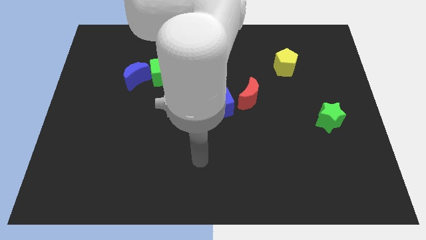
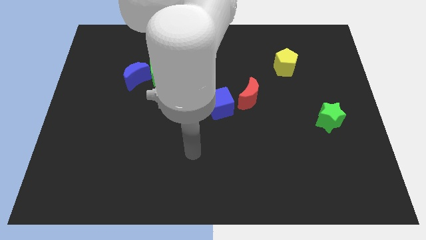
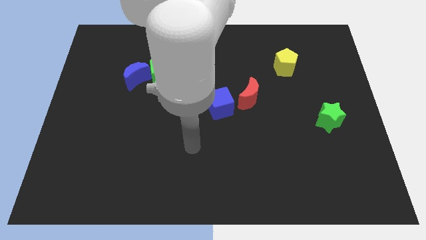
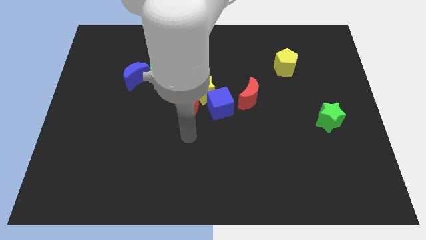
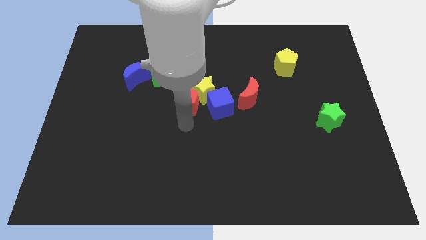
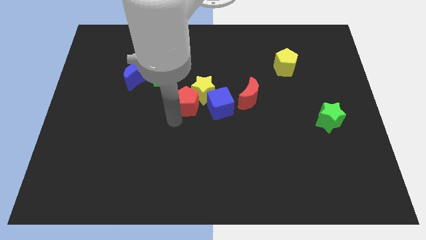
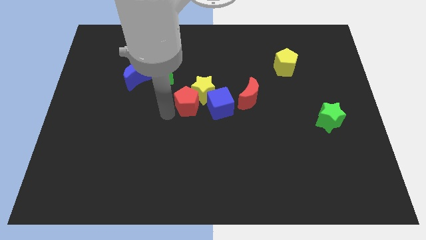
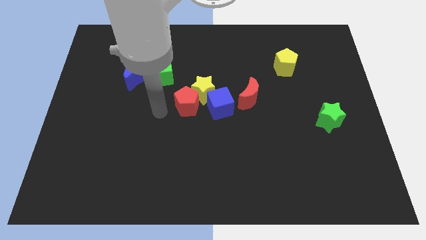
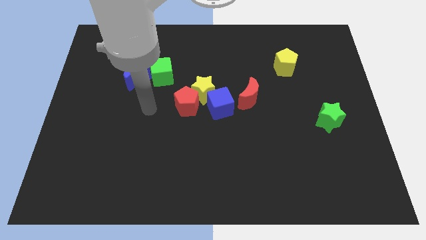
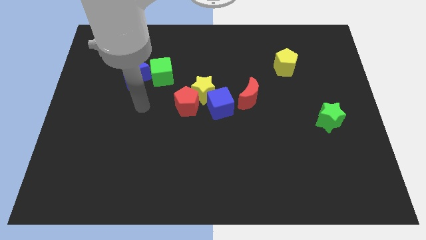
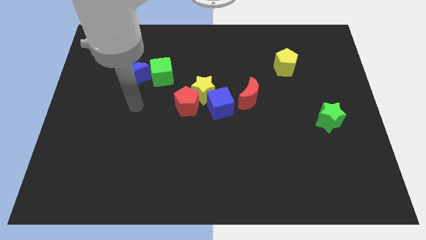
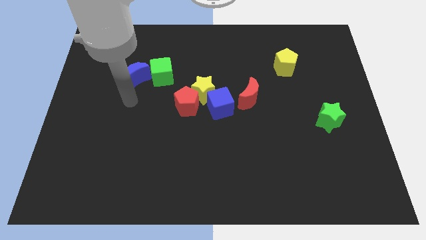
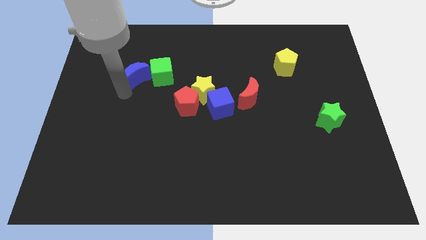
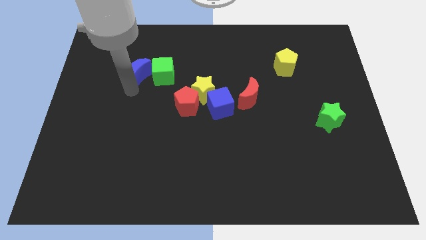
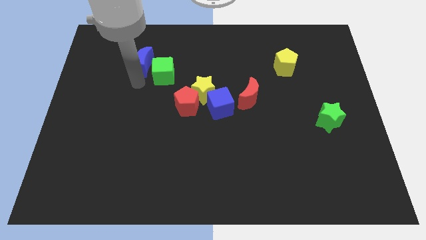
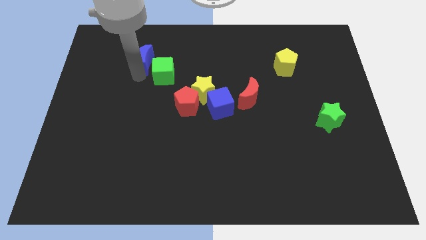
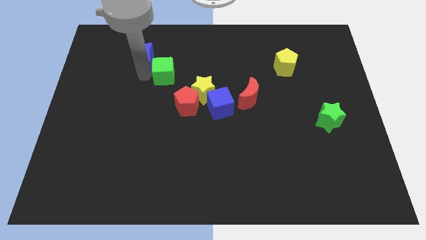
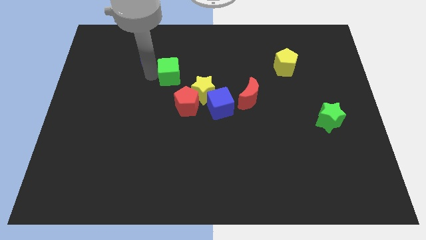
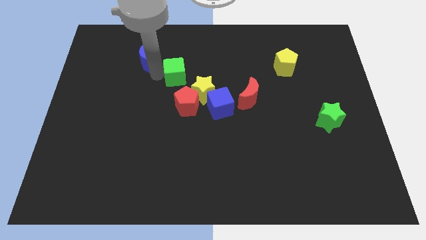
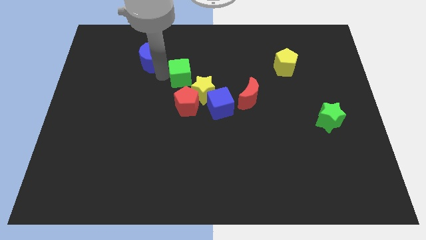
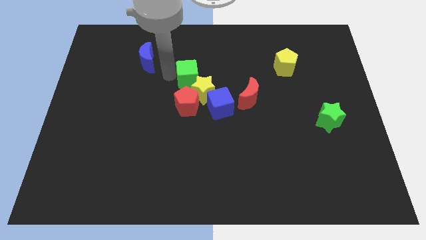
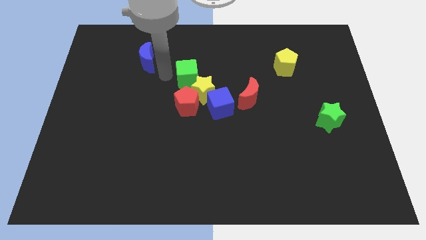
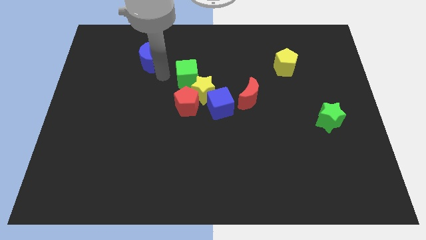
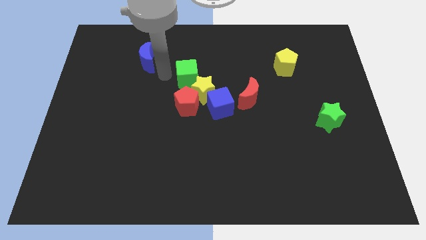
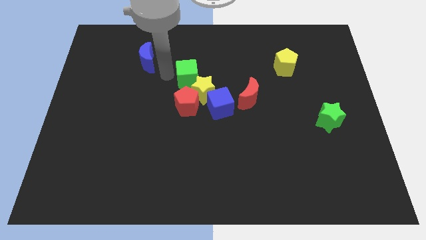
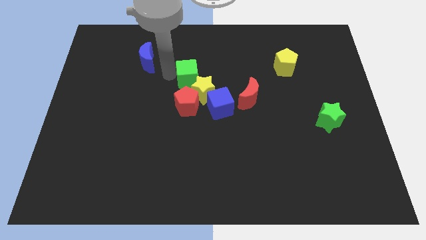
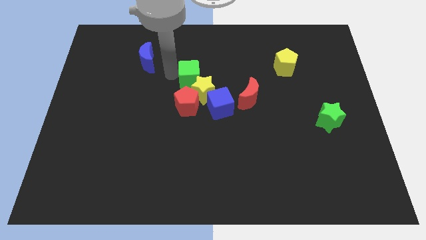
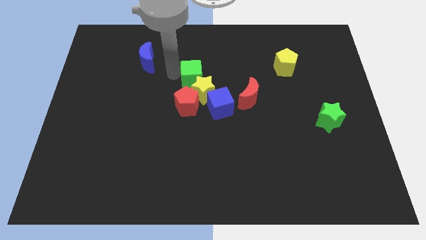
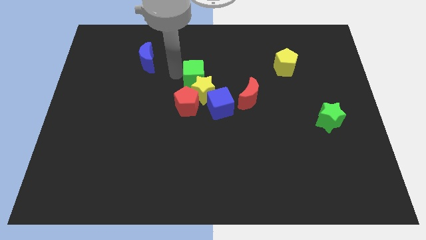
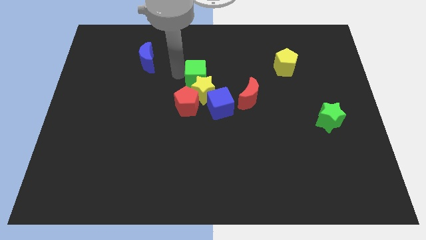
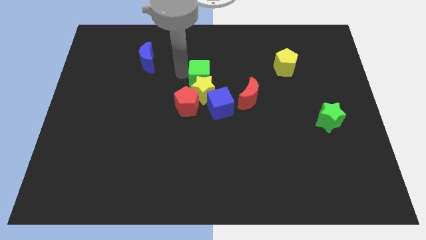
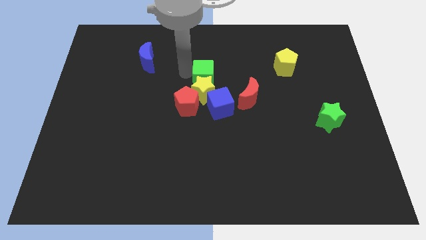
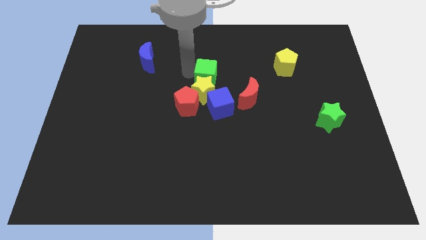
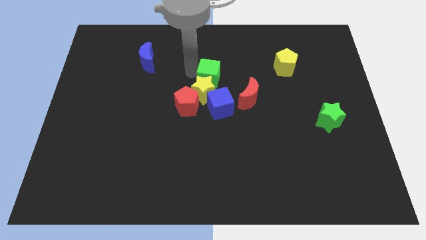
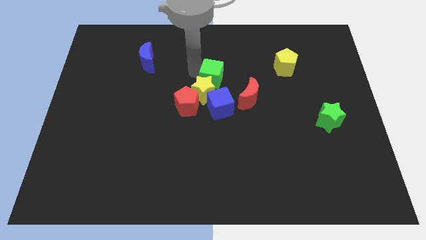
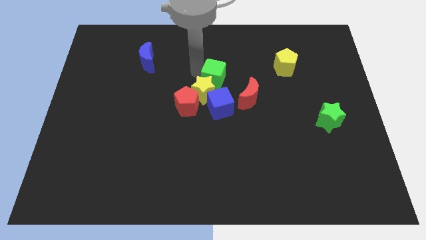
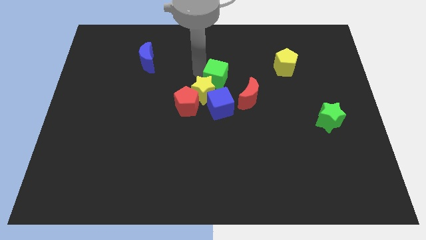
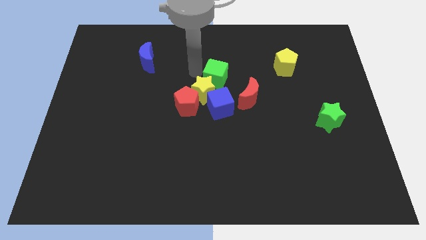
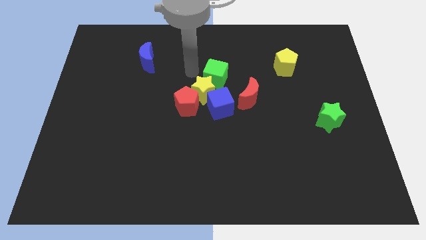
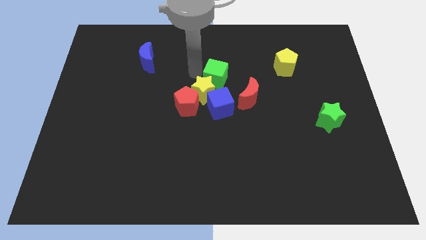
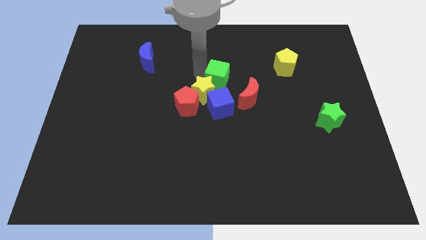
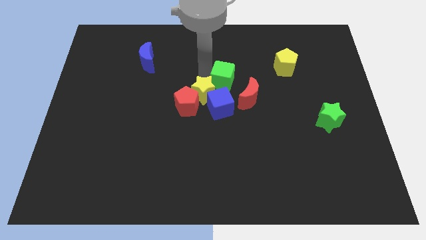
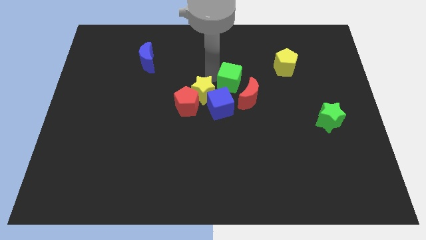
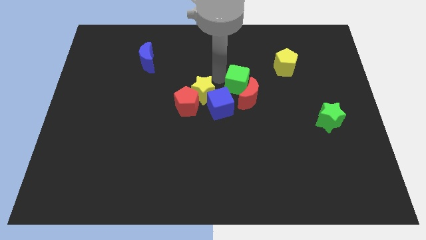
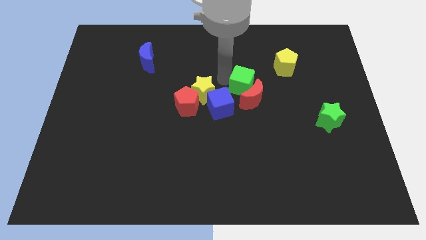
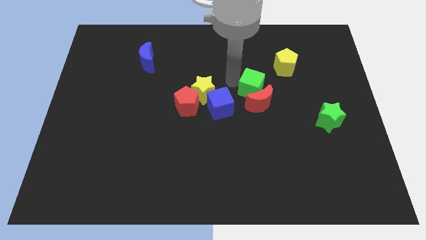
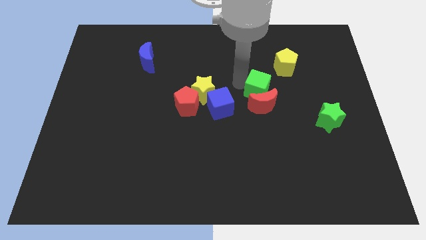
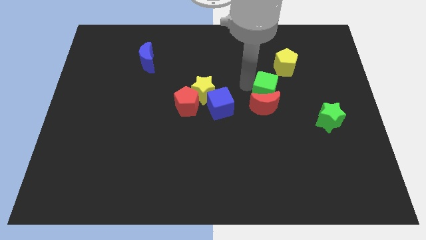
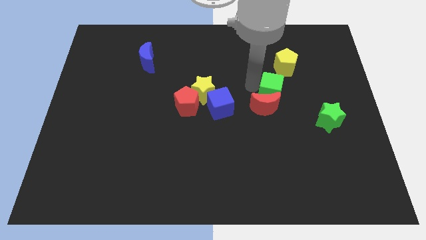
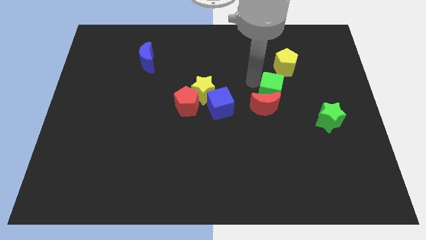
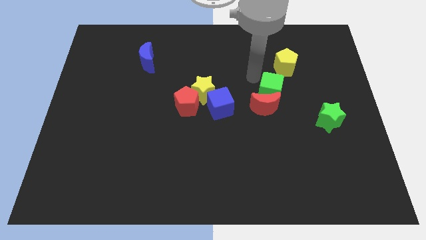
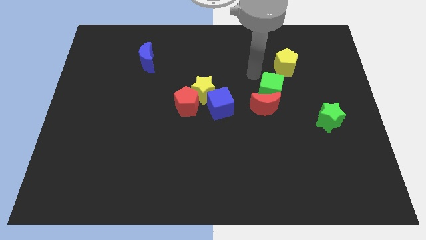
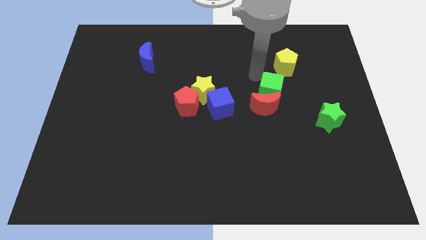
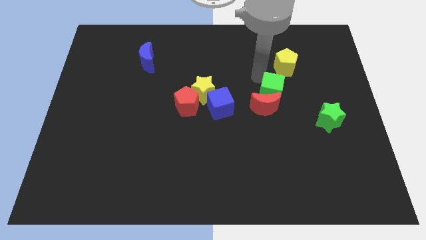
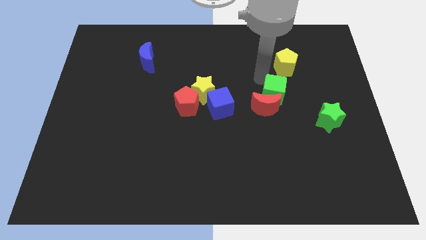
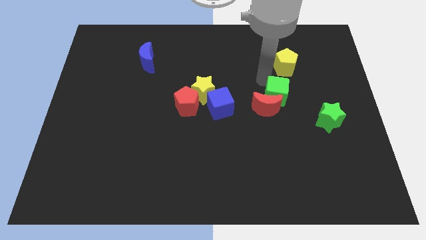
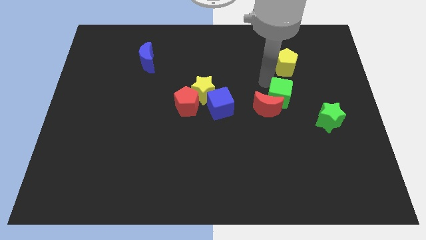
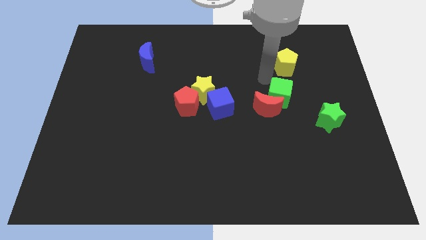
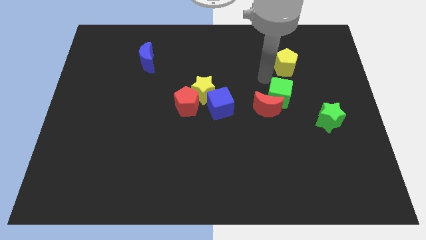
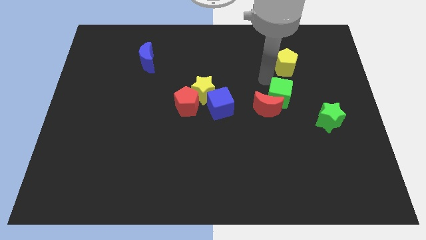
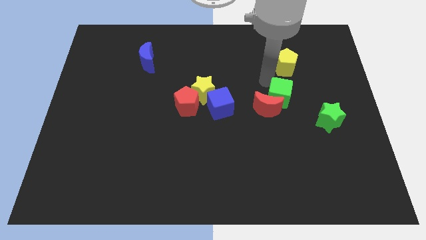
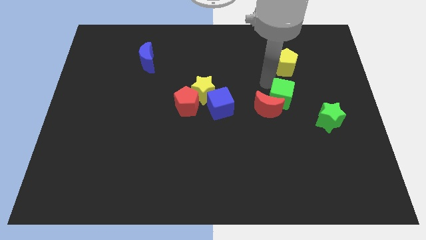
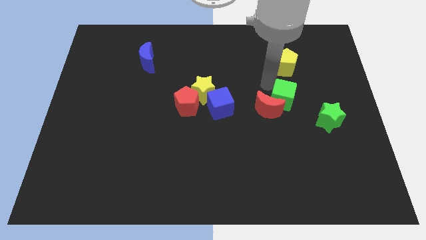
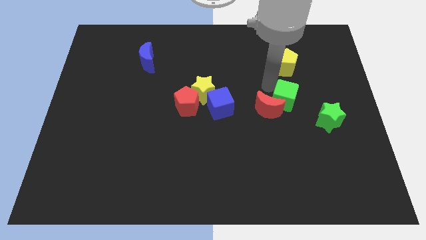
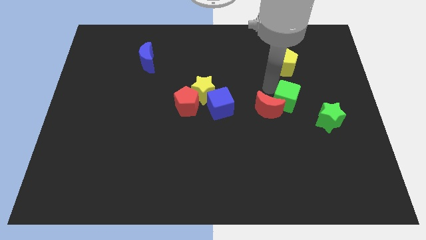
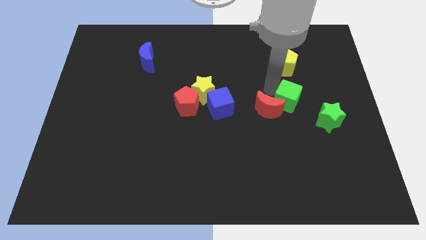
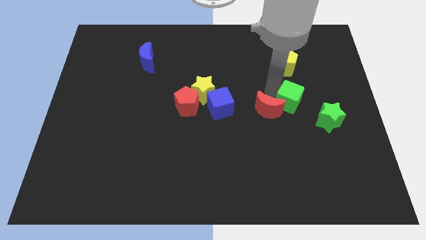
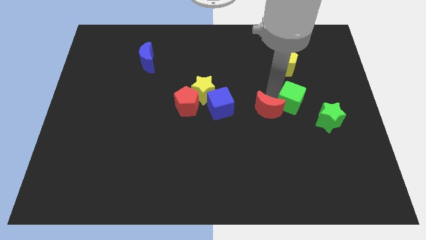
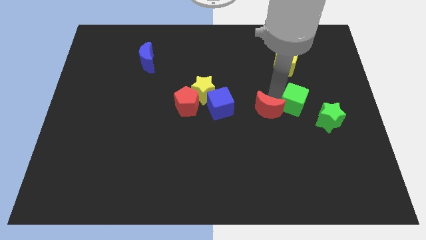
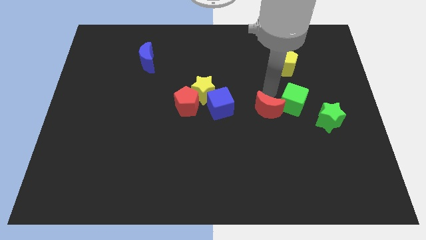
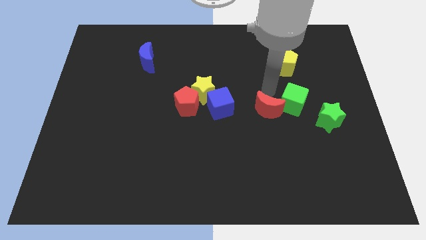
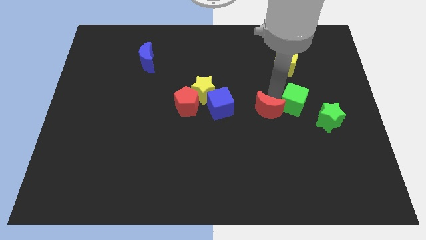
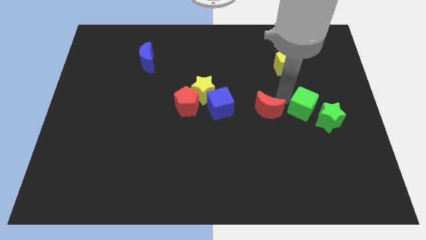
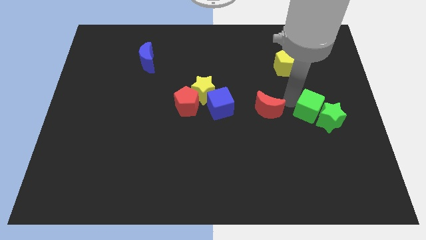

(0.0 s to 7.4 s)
put the green cube next to the green star

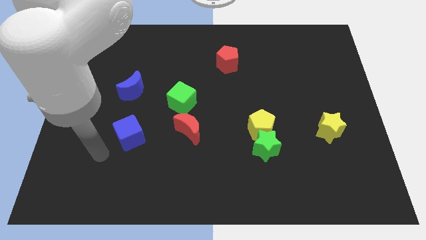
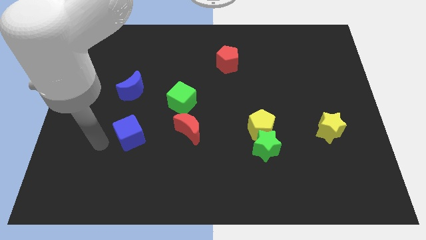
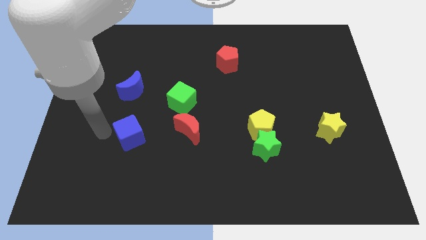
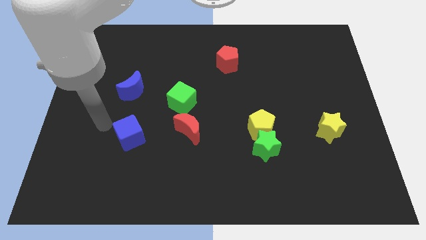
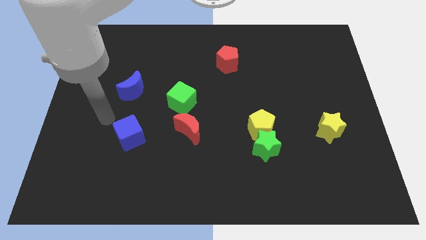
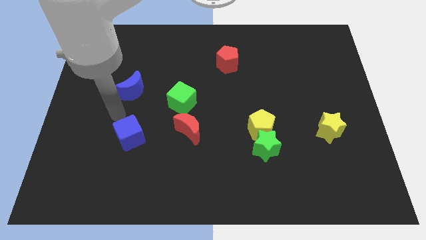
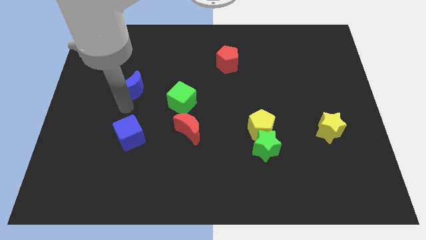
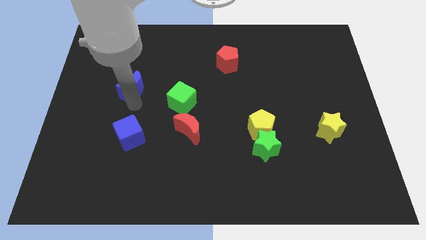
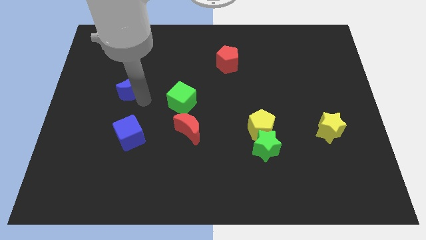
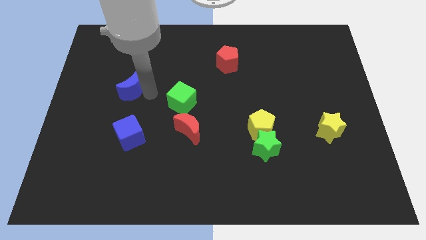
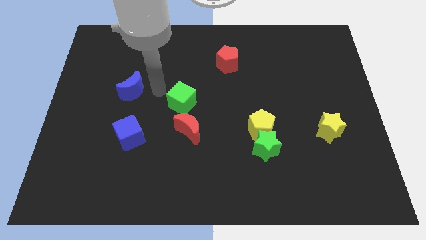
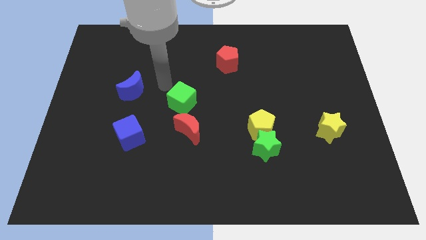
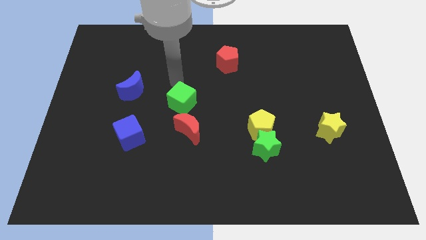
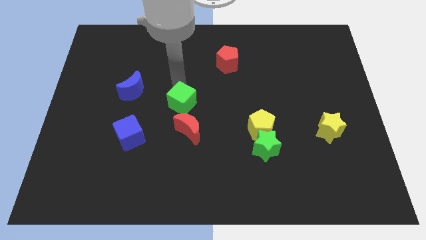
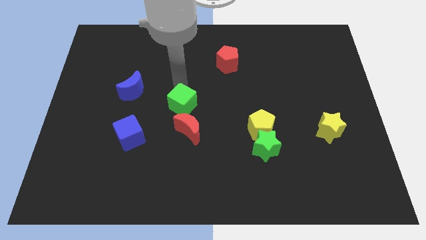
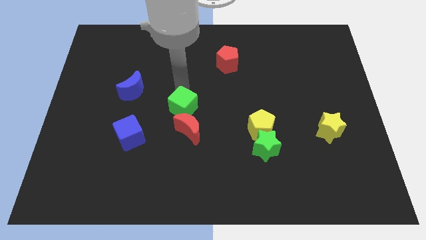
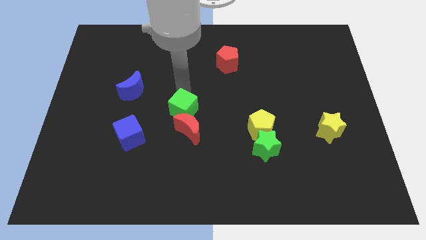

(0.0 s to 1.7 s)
slide the green cube to the red moon
